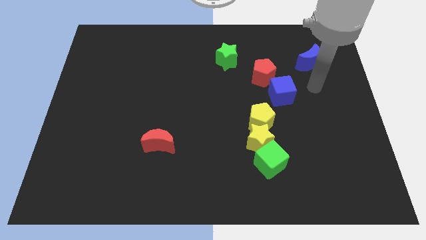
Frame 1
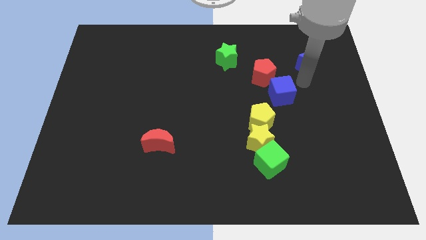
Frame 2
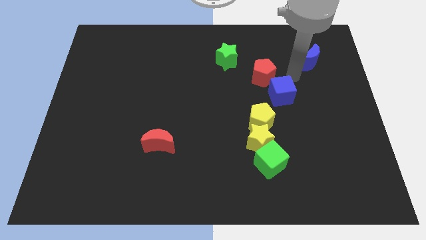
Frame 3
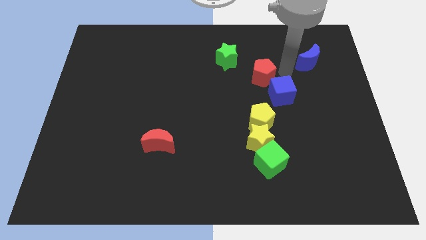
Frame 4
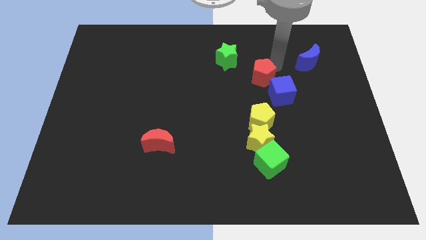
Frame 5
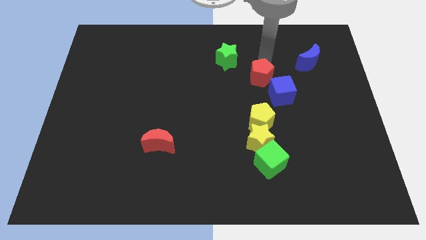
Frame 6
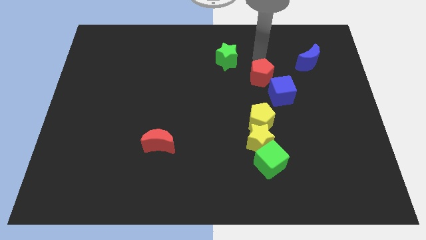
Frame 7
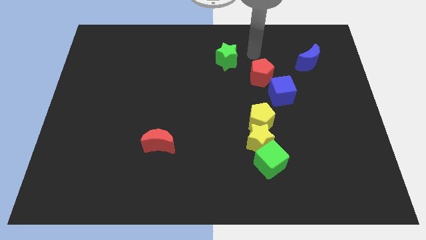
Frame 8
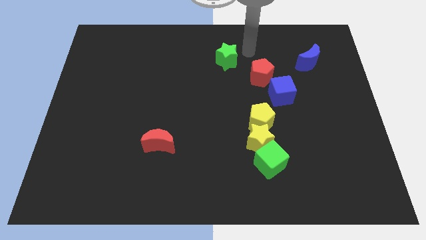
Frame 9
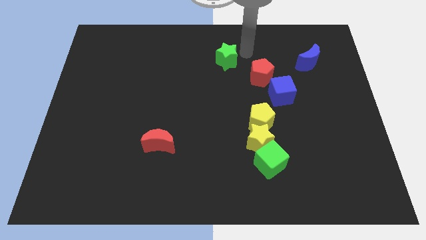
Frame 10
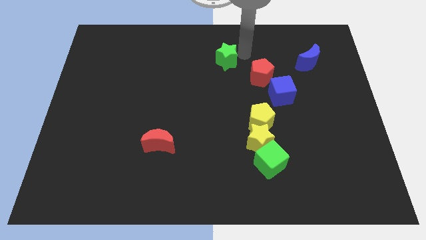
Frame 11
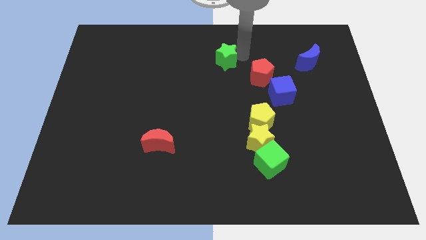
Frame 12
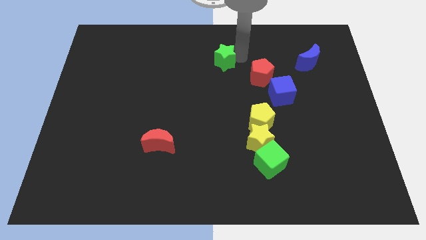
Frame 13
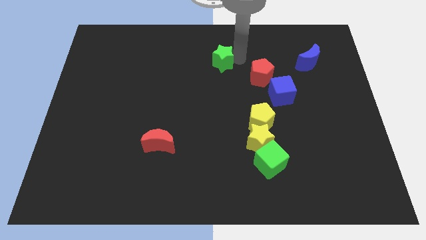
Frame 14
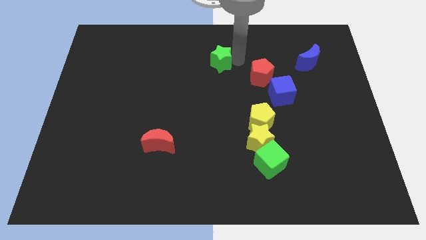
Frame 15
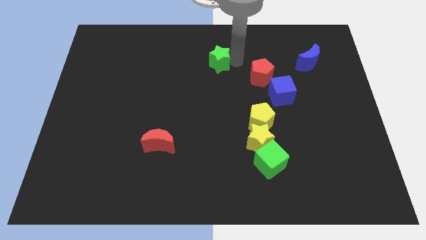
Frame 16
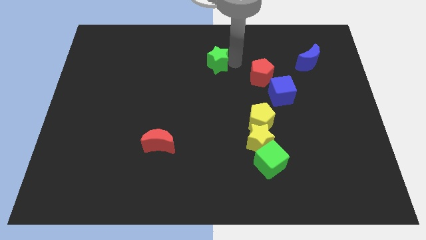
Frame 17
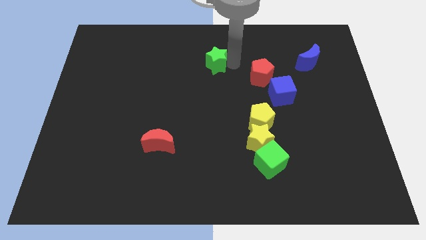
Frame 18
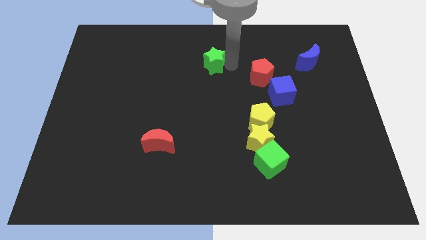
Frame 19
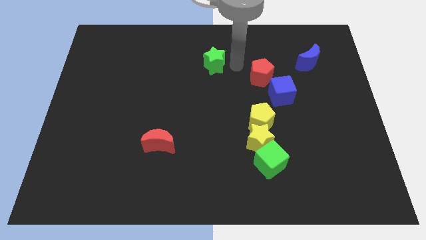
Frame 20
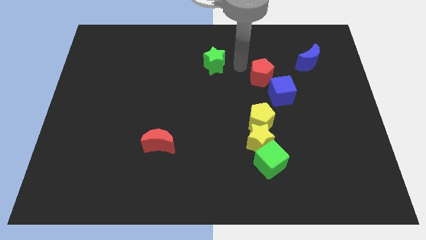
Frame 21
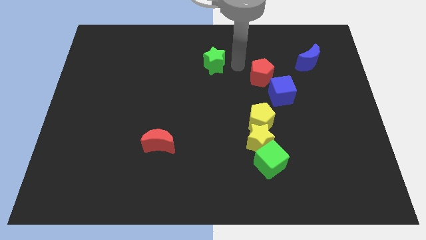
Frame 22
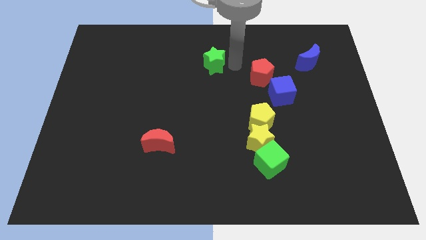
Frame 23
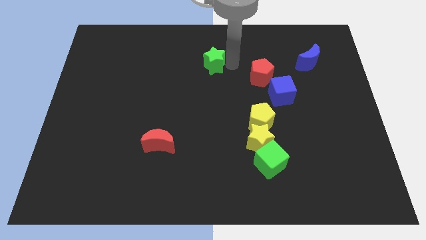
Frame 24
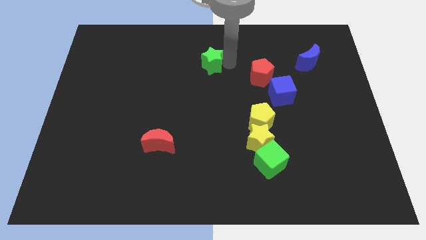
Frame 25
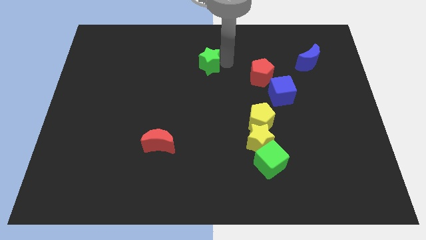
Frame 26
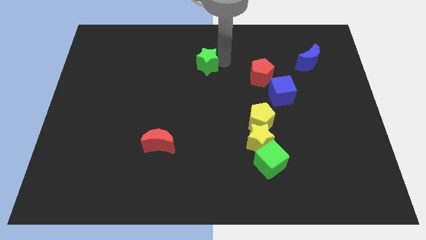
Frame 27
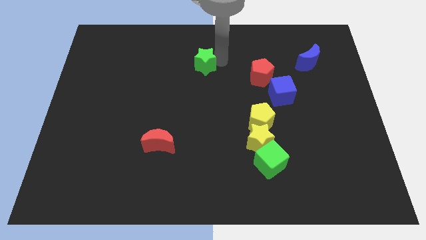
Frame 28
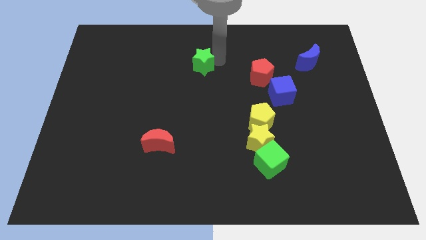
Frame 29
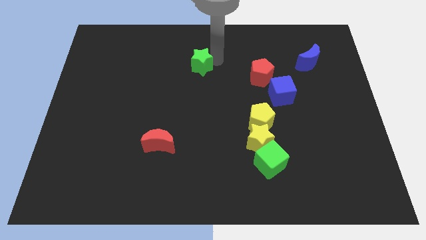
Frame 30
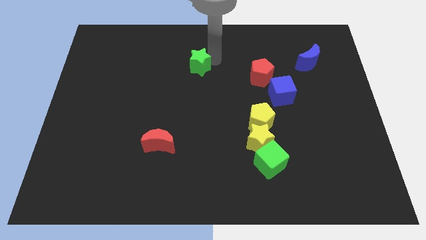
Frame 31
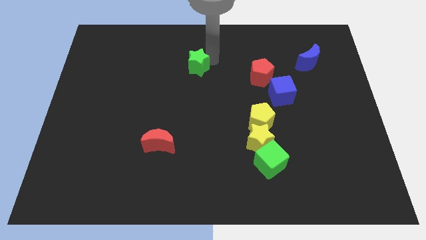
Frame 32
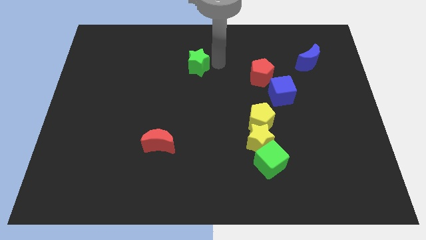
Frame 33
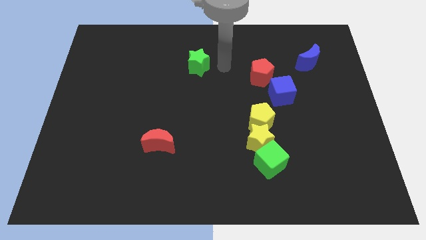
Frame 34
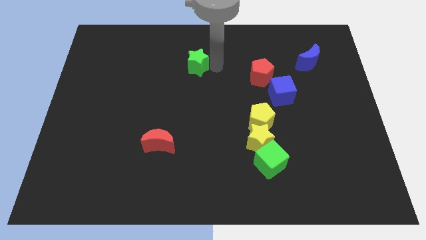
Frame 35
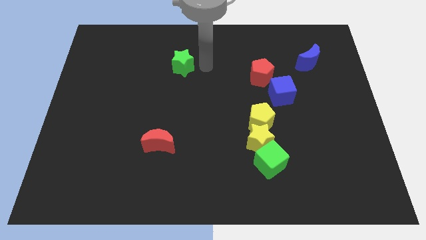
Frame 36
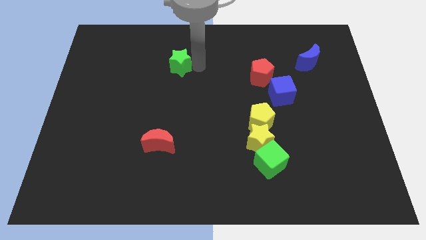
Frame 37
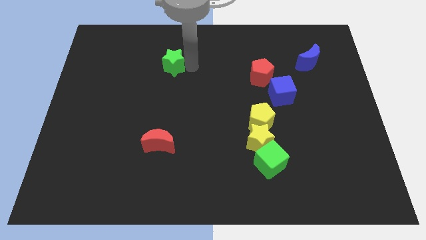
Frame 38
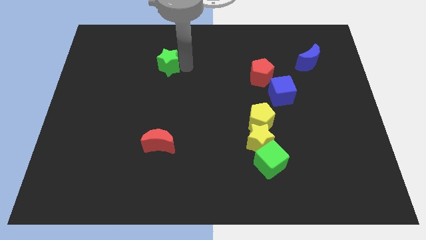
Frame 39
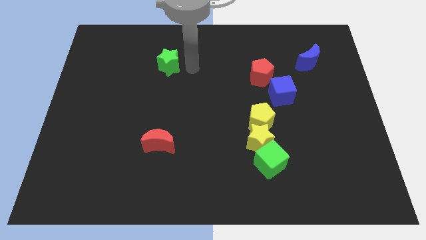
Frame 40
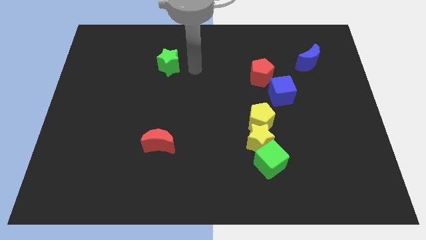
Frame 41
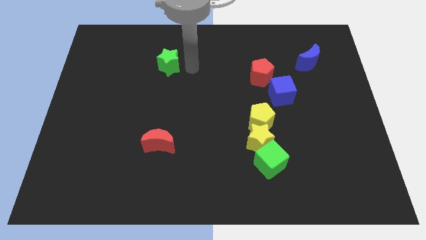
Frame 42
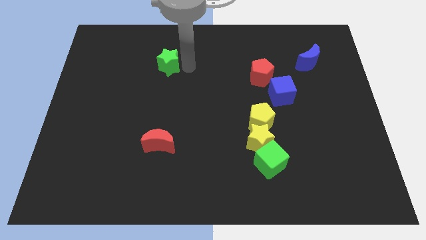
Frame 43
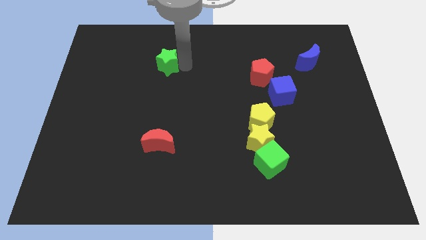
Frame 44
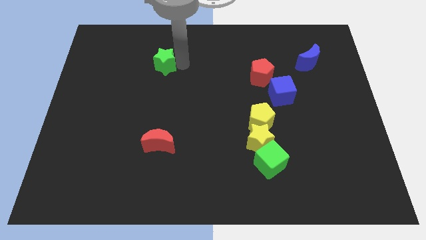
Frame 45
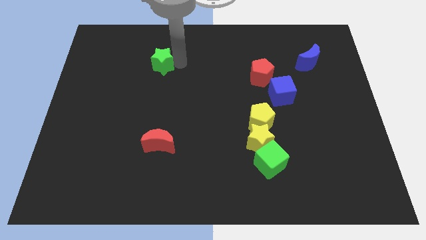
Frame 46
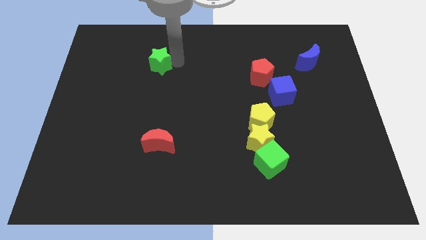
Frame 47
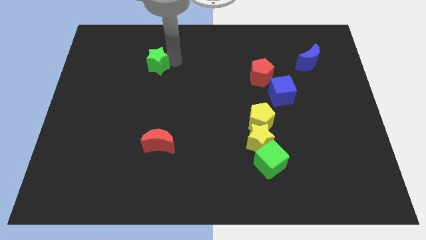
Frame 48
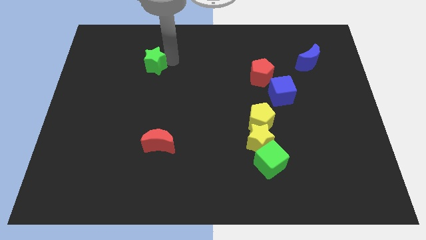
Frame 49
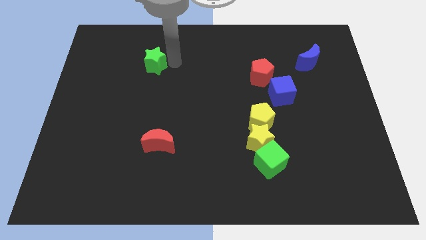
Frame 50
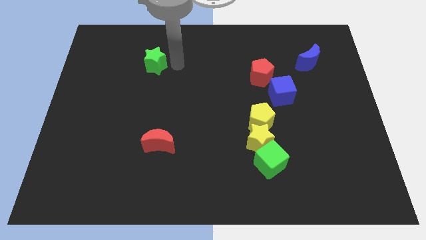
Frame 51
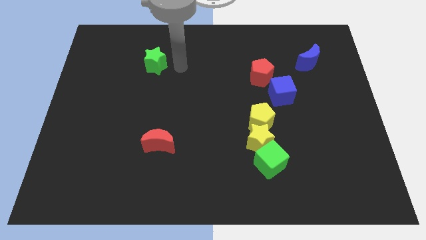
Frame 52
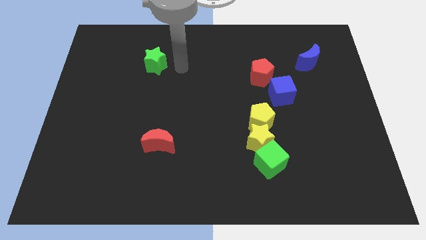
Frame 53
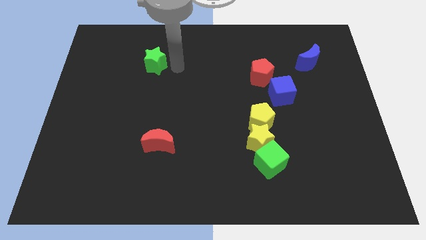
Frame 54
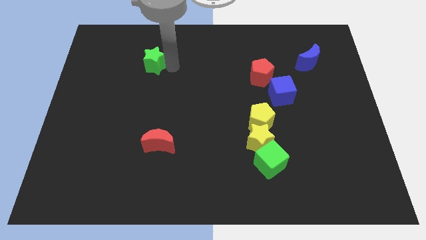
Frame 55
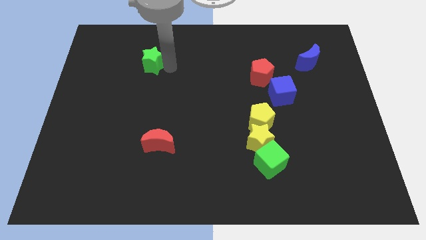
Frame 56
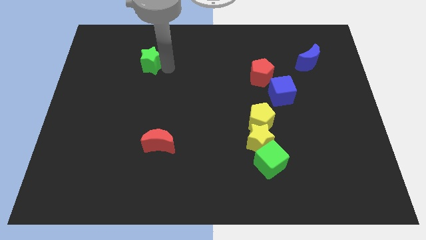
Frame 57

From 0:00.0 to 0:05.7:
slide the green star left

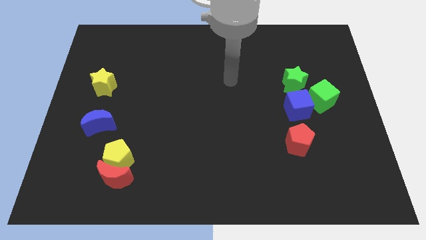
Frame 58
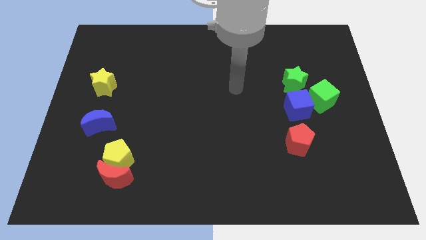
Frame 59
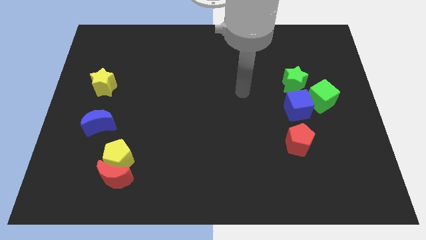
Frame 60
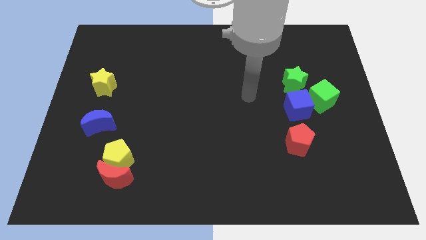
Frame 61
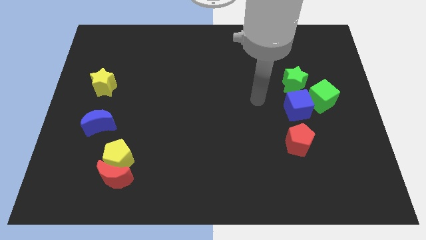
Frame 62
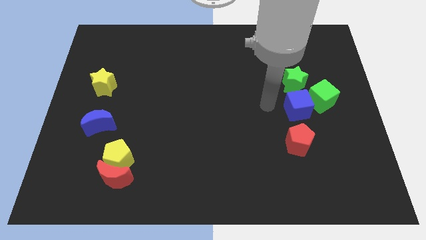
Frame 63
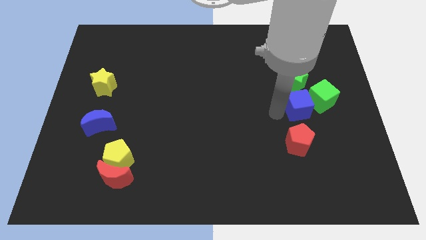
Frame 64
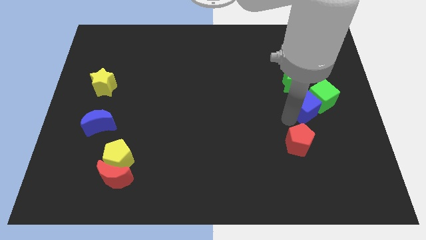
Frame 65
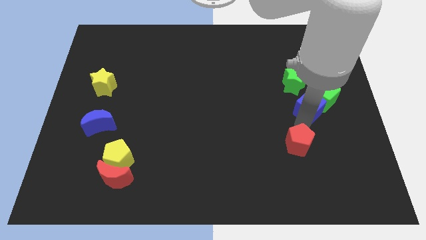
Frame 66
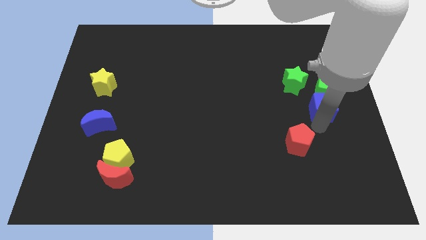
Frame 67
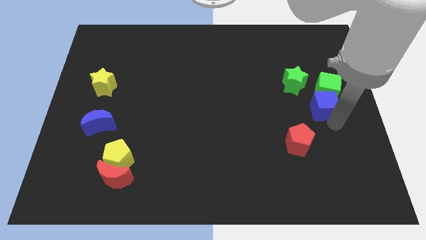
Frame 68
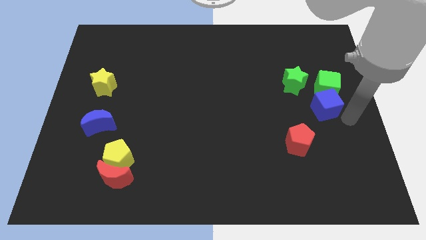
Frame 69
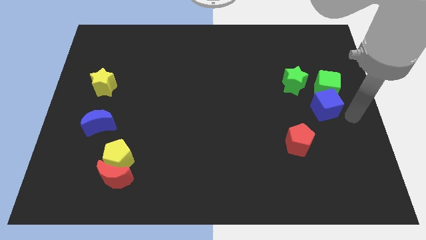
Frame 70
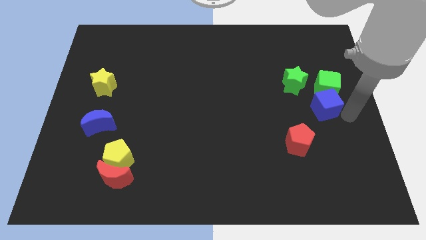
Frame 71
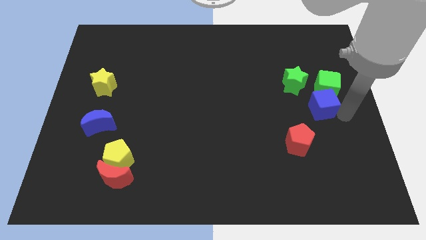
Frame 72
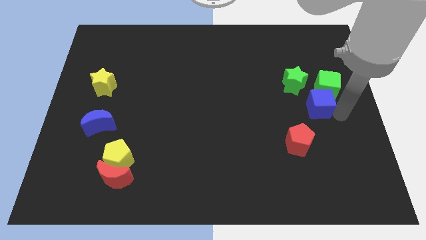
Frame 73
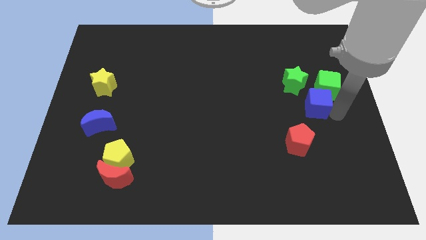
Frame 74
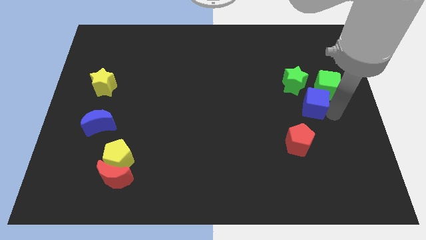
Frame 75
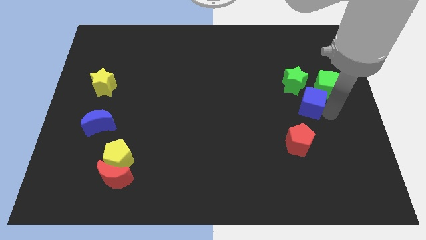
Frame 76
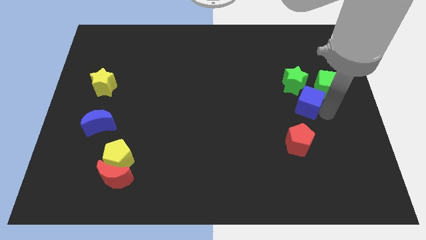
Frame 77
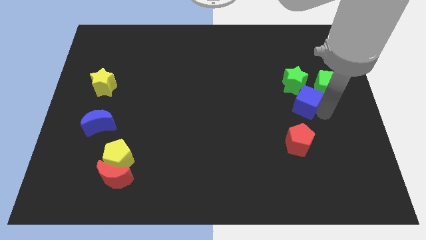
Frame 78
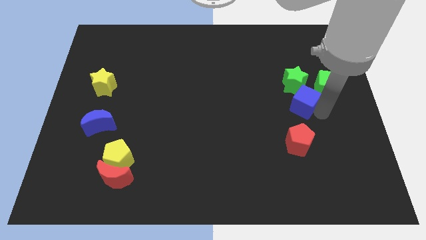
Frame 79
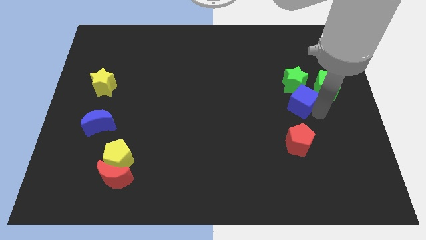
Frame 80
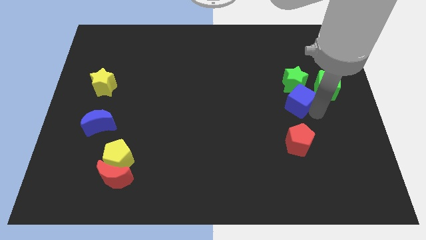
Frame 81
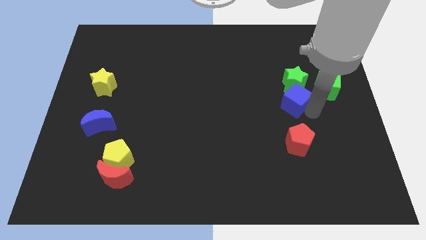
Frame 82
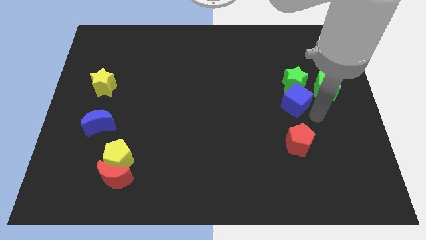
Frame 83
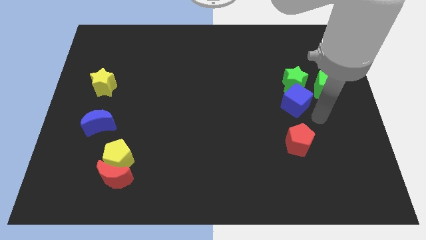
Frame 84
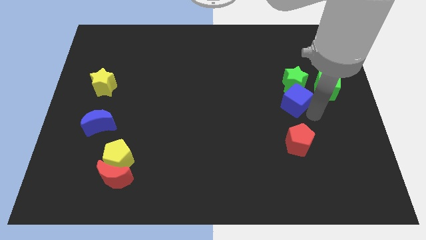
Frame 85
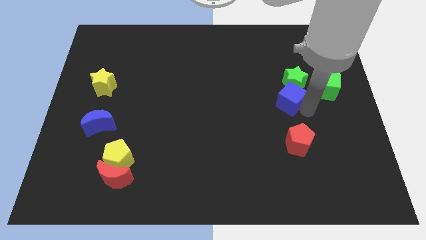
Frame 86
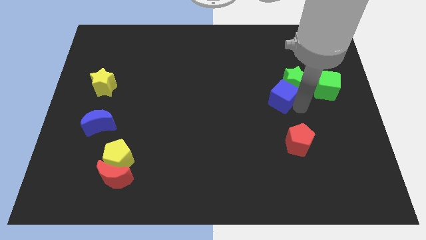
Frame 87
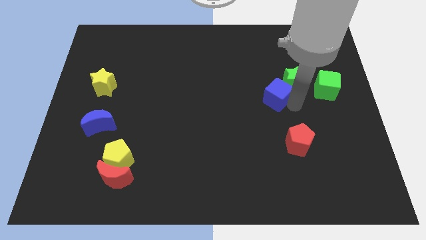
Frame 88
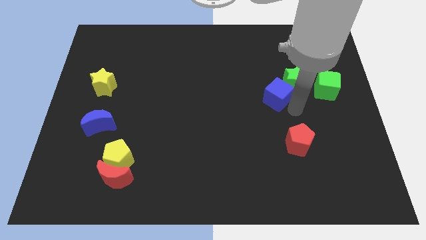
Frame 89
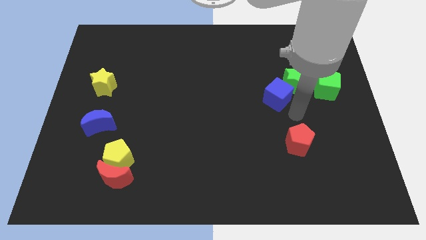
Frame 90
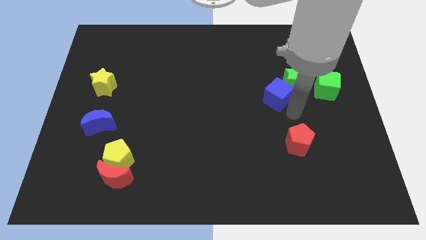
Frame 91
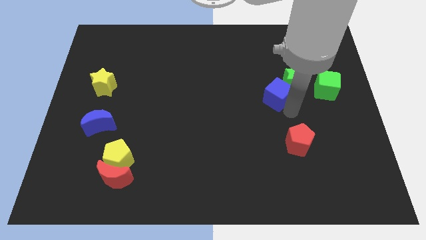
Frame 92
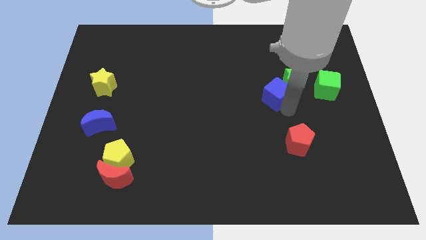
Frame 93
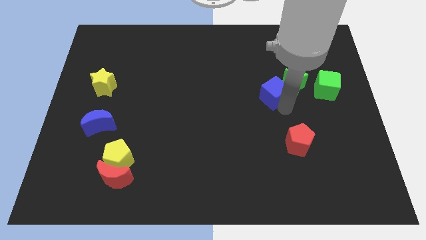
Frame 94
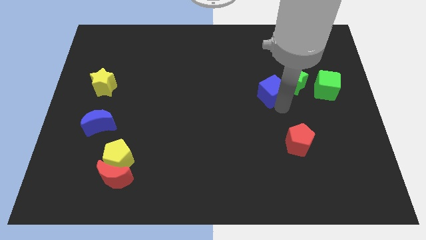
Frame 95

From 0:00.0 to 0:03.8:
push the blue cube diagonally up and to the left a little bit
